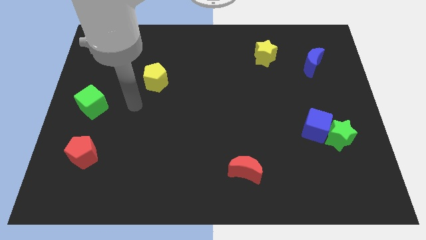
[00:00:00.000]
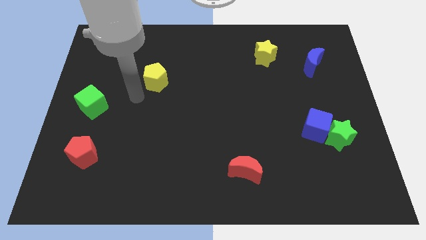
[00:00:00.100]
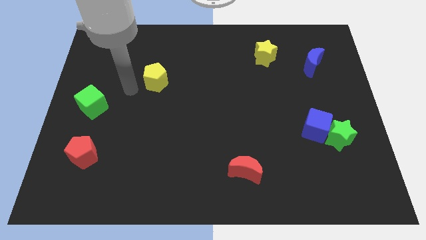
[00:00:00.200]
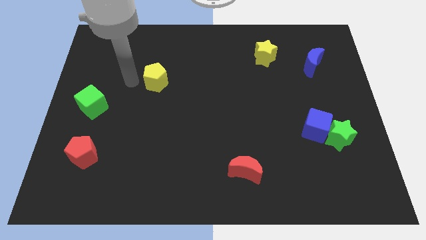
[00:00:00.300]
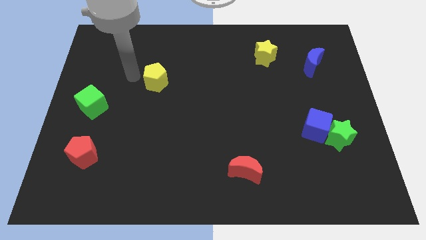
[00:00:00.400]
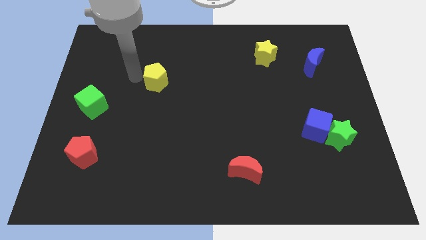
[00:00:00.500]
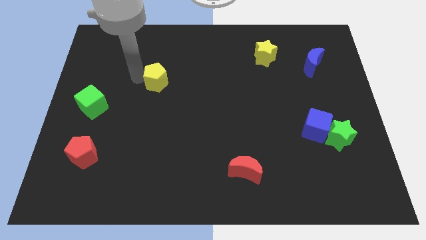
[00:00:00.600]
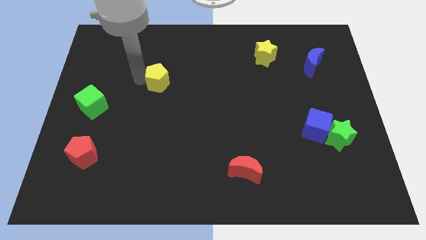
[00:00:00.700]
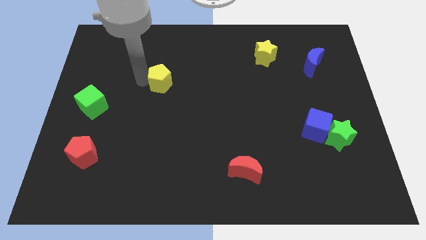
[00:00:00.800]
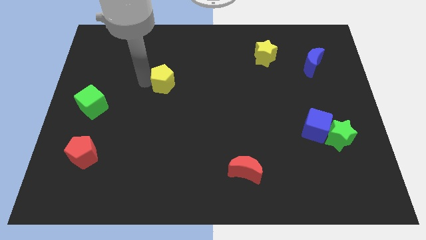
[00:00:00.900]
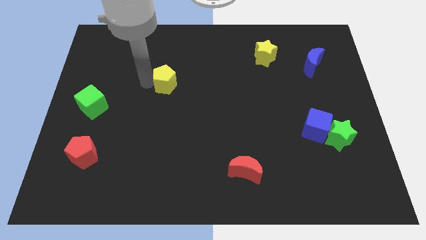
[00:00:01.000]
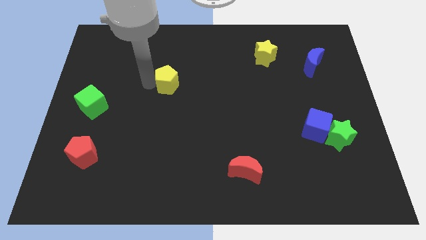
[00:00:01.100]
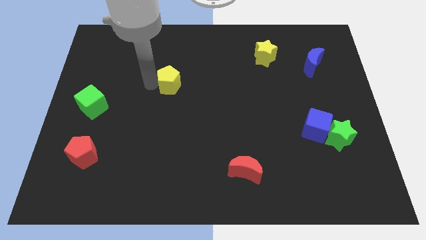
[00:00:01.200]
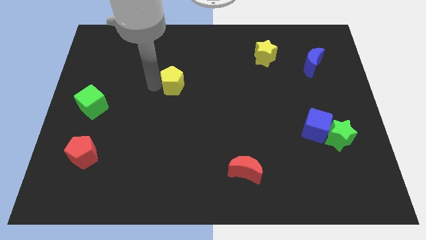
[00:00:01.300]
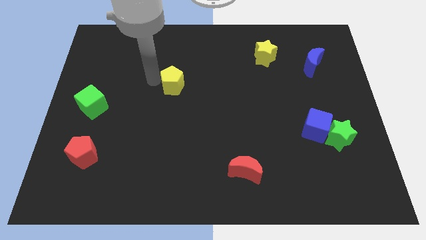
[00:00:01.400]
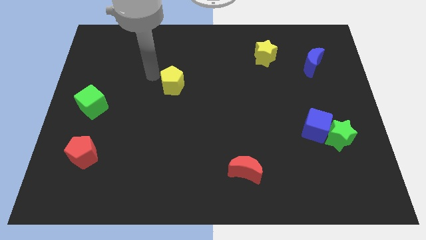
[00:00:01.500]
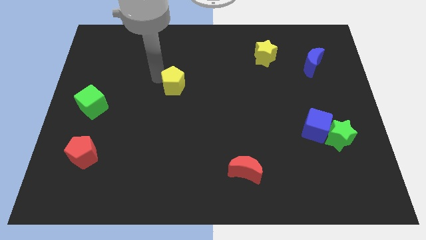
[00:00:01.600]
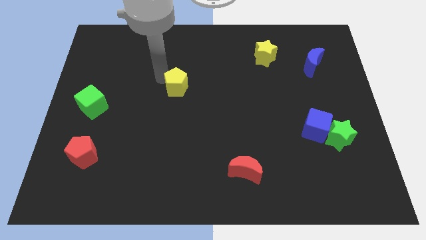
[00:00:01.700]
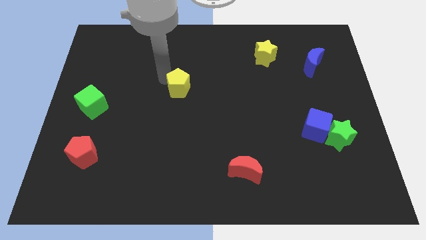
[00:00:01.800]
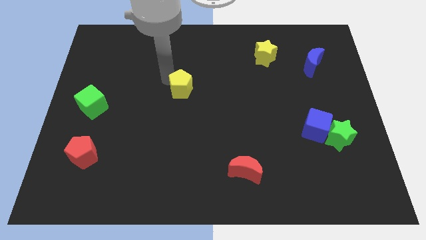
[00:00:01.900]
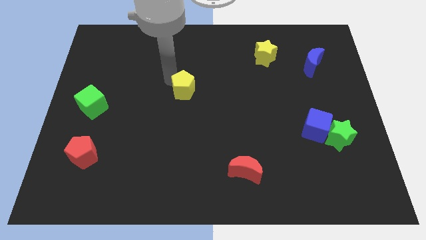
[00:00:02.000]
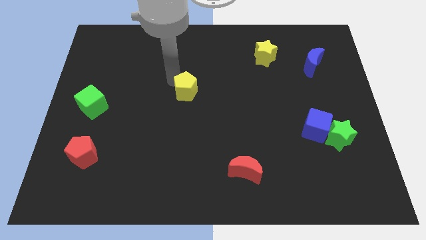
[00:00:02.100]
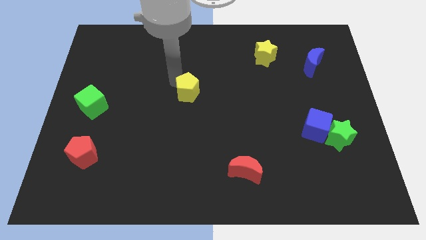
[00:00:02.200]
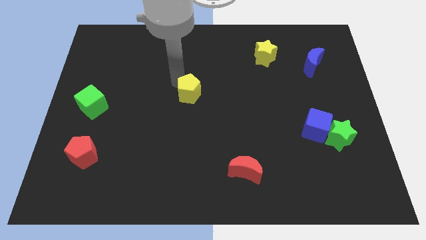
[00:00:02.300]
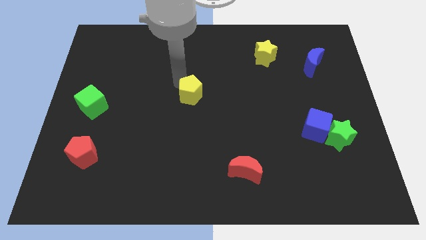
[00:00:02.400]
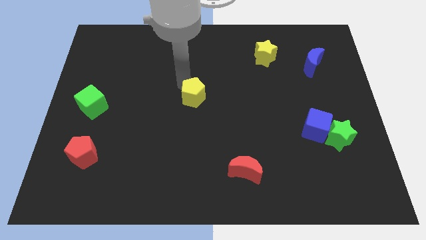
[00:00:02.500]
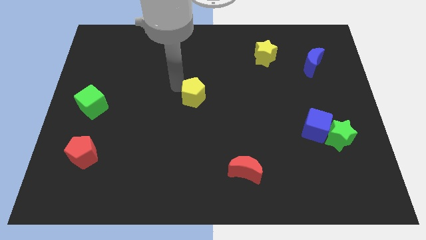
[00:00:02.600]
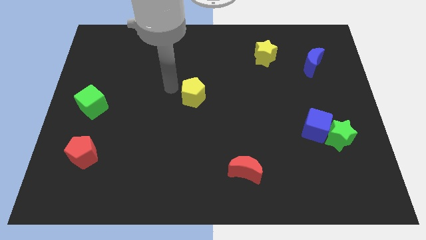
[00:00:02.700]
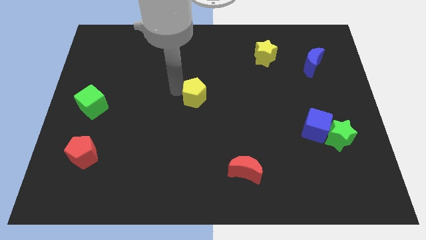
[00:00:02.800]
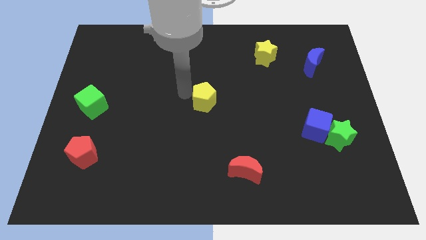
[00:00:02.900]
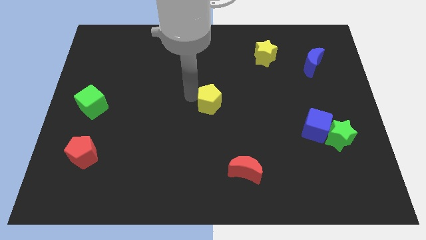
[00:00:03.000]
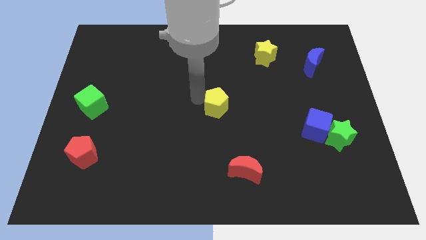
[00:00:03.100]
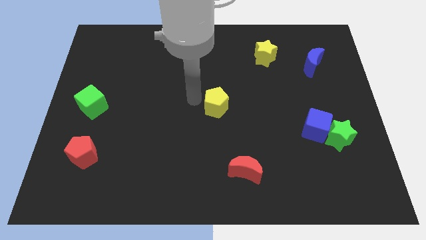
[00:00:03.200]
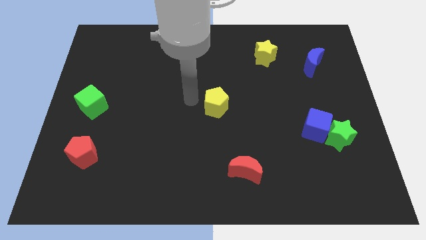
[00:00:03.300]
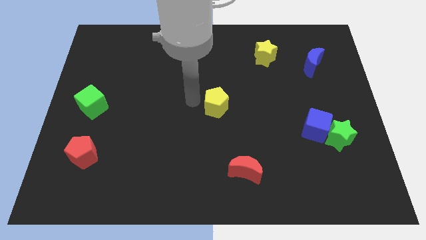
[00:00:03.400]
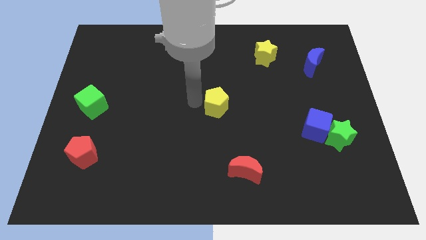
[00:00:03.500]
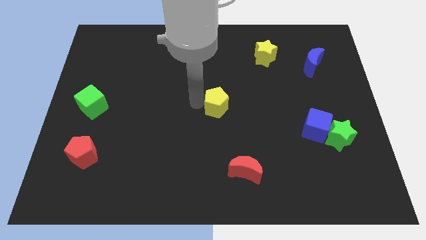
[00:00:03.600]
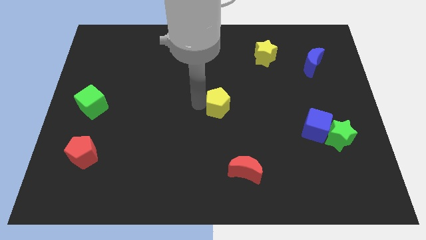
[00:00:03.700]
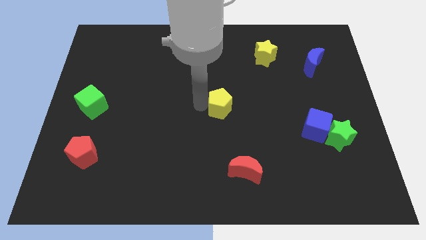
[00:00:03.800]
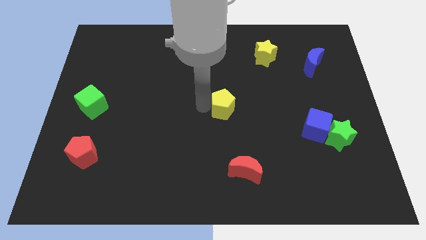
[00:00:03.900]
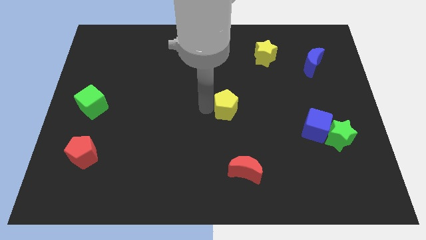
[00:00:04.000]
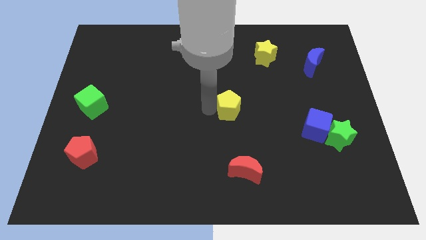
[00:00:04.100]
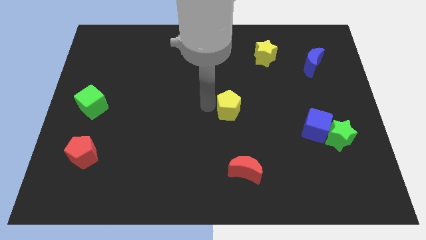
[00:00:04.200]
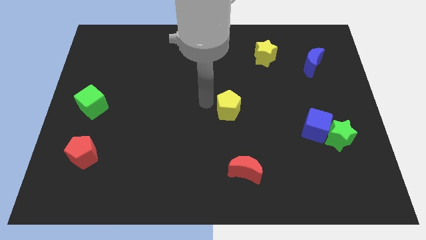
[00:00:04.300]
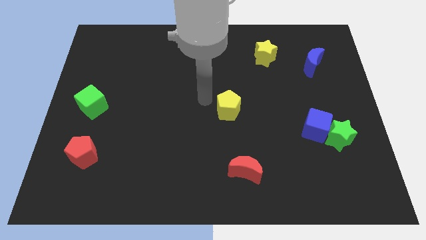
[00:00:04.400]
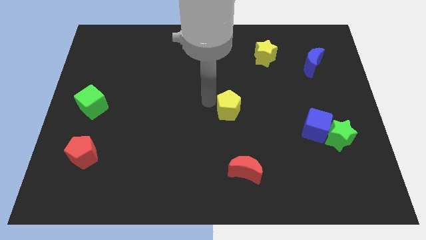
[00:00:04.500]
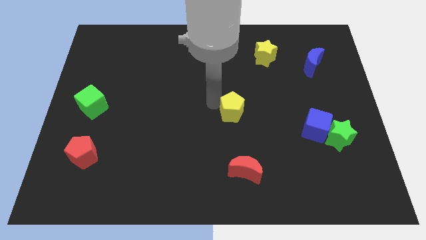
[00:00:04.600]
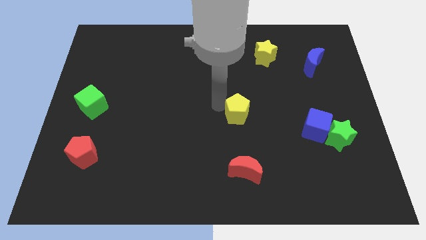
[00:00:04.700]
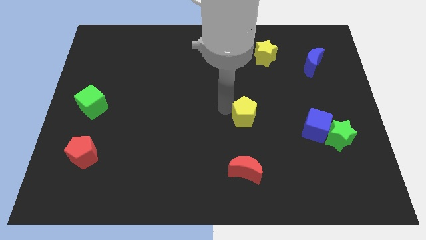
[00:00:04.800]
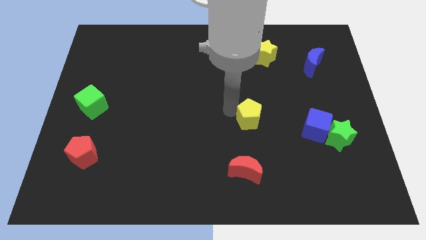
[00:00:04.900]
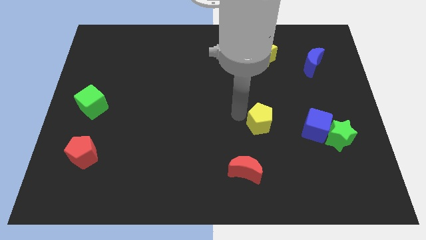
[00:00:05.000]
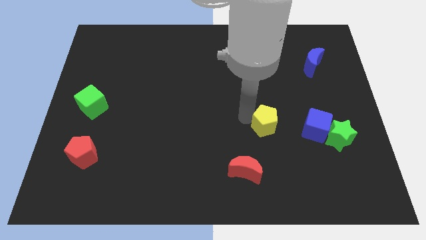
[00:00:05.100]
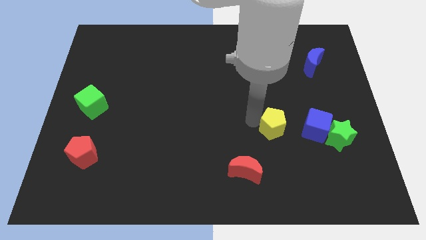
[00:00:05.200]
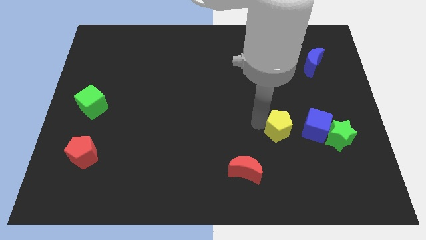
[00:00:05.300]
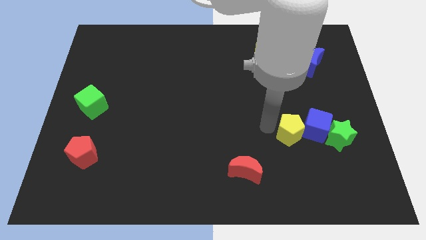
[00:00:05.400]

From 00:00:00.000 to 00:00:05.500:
push the yellow pentagon close to the blue cube

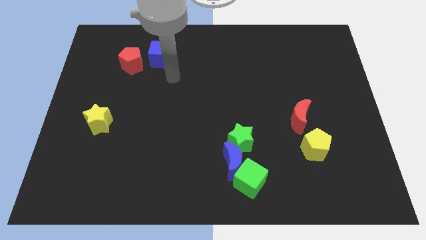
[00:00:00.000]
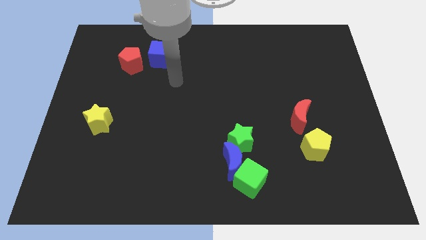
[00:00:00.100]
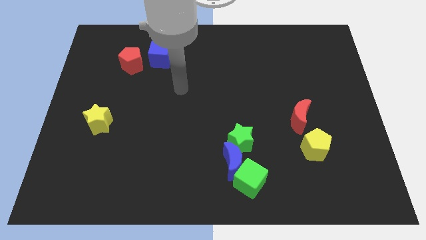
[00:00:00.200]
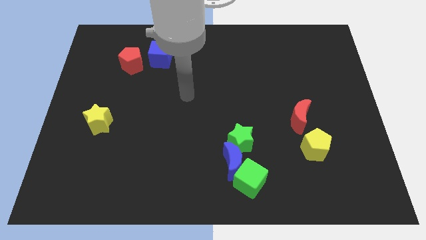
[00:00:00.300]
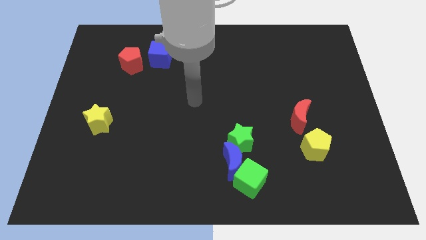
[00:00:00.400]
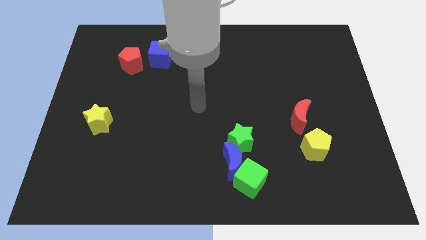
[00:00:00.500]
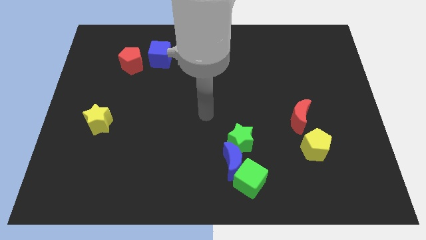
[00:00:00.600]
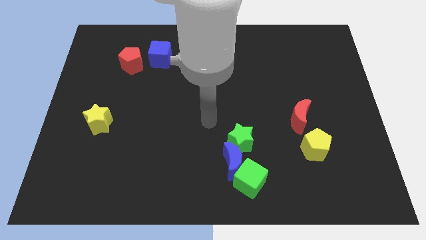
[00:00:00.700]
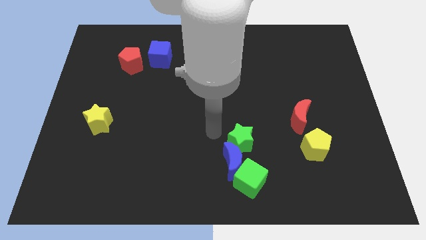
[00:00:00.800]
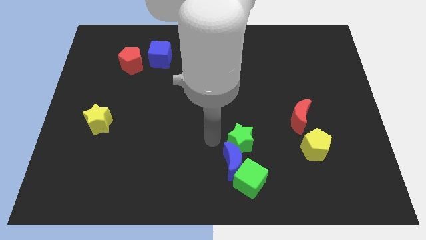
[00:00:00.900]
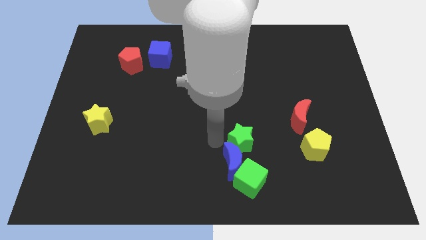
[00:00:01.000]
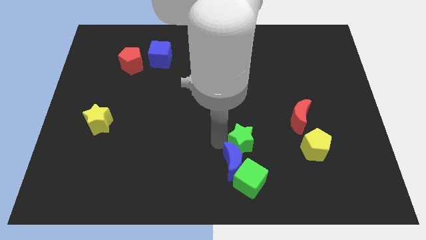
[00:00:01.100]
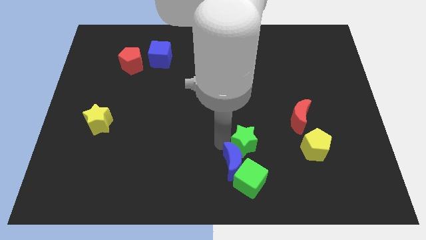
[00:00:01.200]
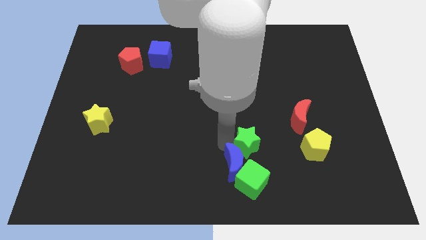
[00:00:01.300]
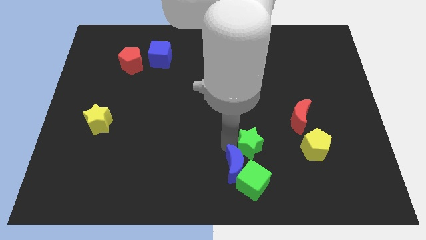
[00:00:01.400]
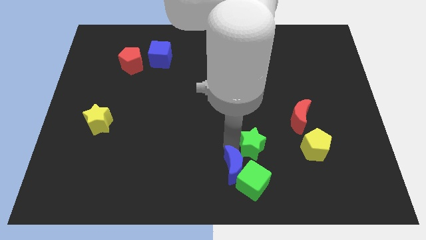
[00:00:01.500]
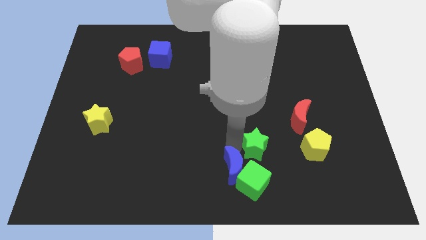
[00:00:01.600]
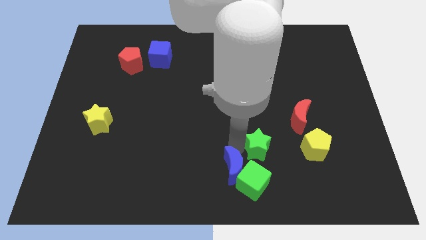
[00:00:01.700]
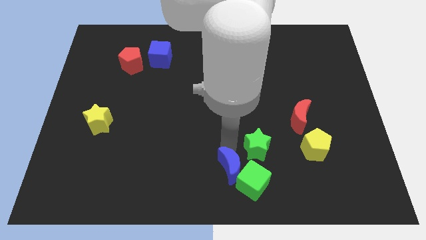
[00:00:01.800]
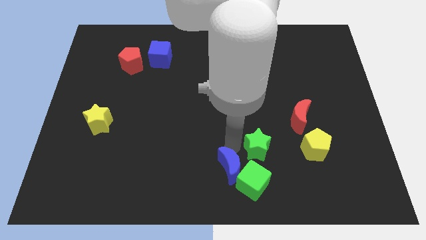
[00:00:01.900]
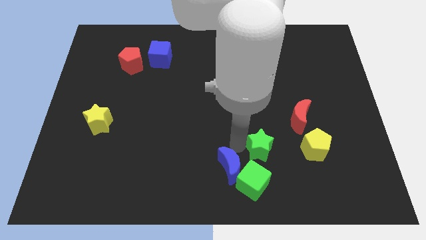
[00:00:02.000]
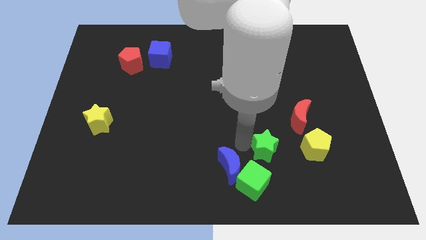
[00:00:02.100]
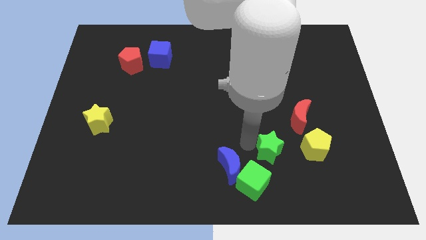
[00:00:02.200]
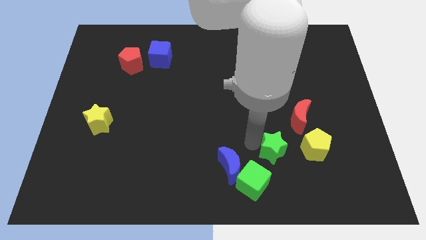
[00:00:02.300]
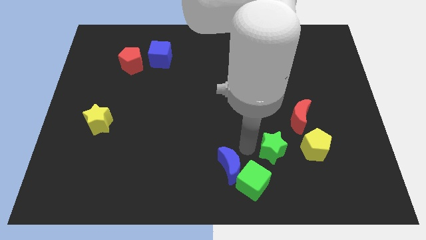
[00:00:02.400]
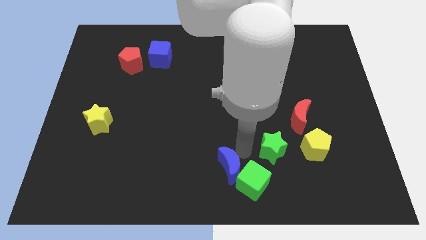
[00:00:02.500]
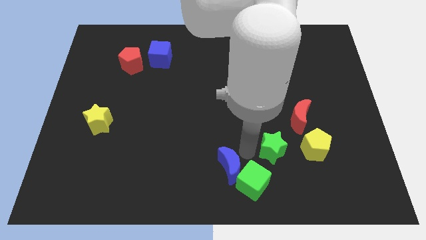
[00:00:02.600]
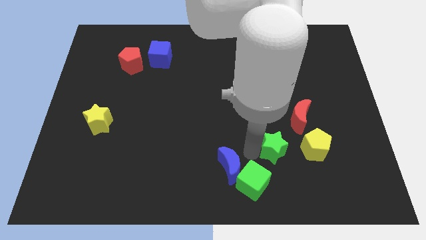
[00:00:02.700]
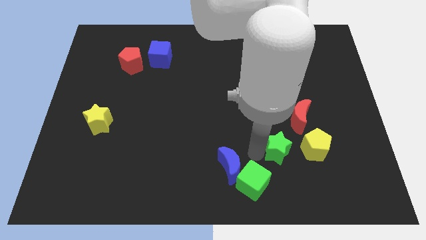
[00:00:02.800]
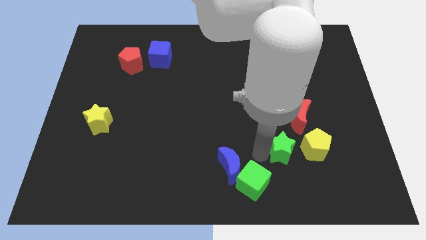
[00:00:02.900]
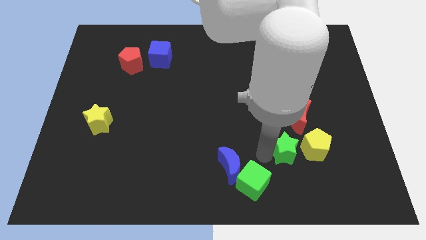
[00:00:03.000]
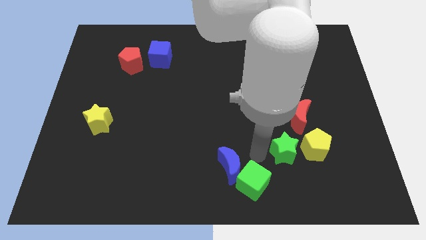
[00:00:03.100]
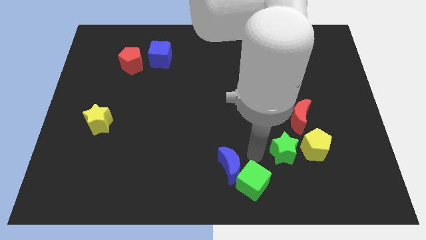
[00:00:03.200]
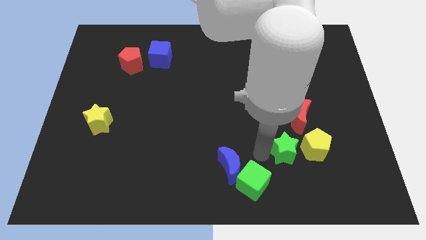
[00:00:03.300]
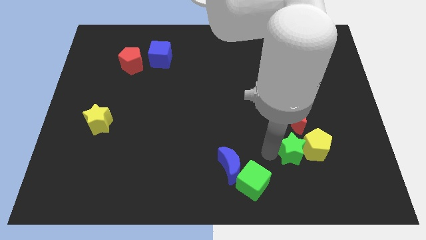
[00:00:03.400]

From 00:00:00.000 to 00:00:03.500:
push the green star close to the yellow pentagon
